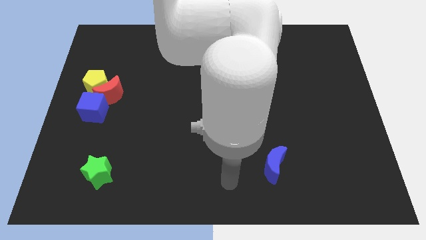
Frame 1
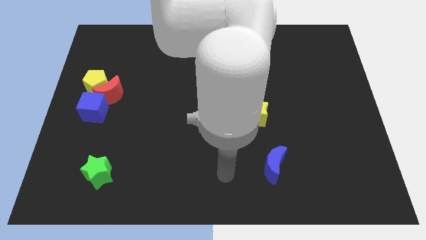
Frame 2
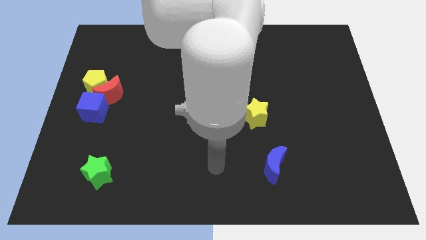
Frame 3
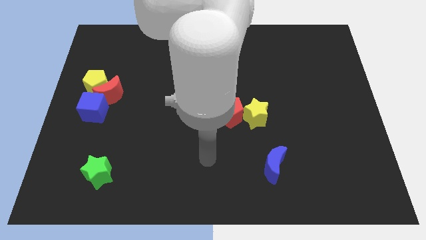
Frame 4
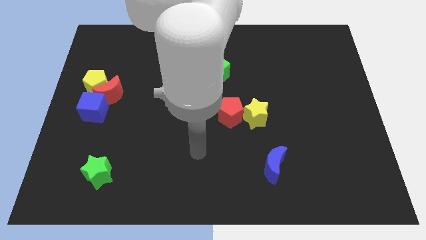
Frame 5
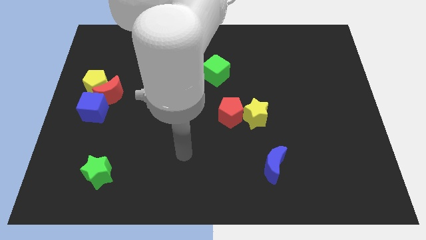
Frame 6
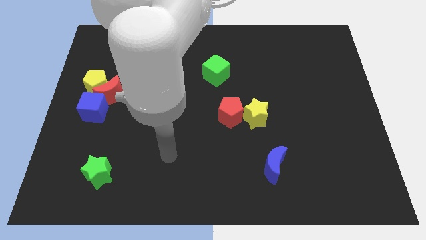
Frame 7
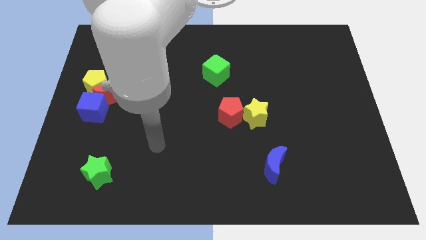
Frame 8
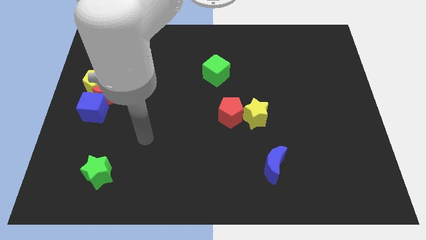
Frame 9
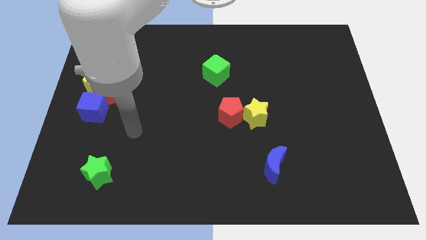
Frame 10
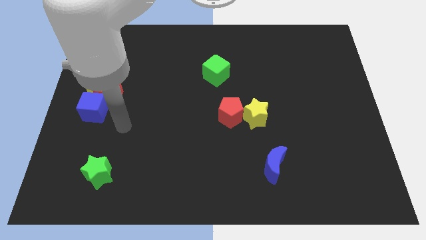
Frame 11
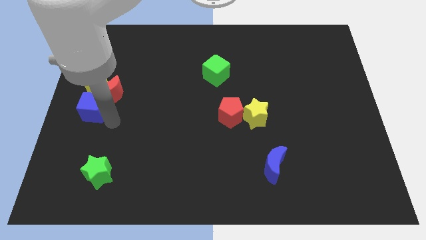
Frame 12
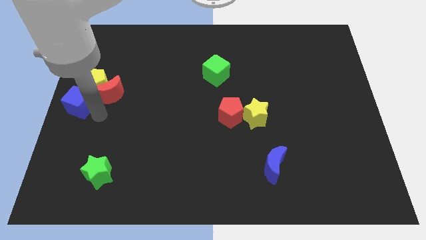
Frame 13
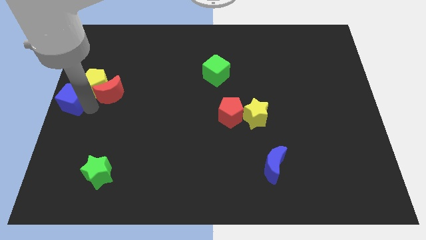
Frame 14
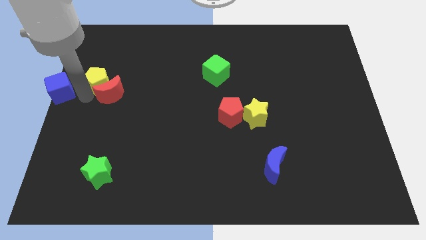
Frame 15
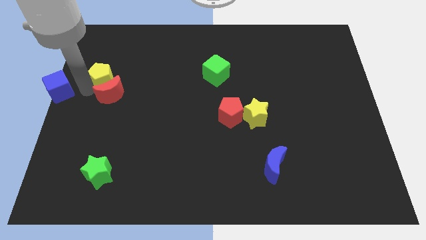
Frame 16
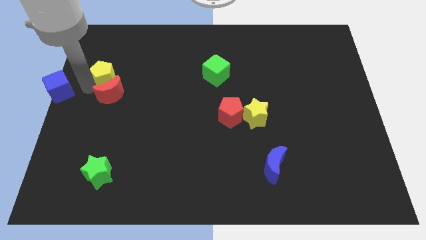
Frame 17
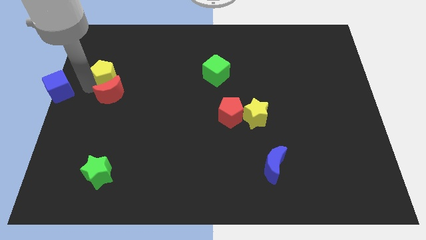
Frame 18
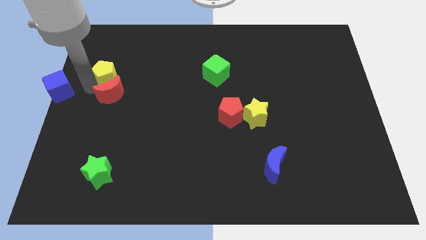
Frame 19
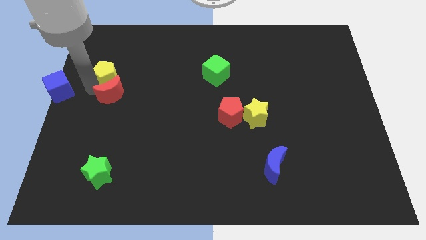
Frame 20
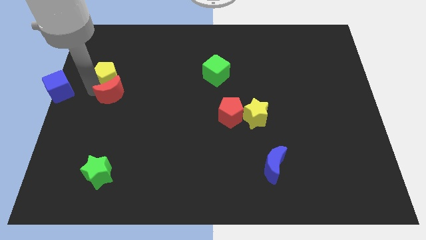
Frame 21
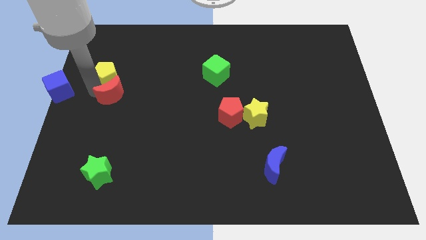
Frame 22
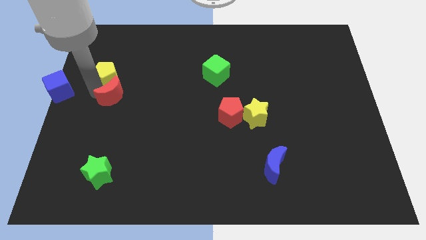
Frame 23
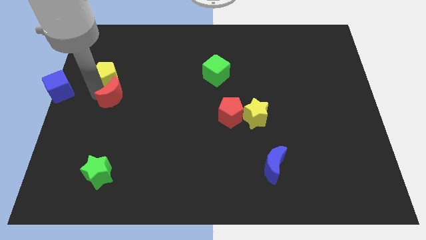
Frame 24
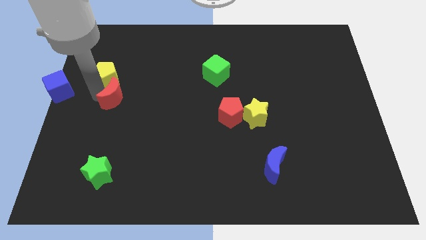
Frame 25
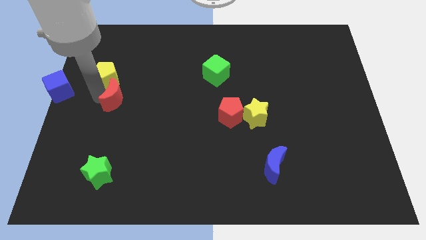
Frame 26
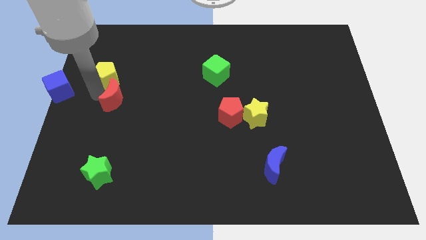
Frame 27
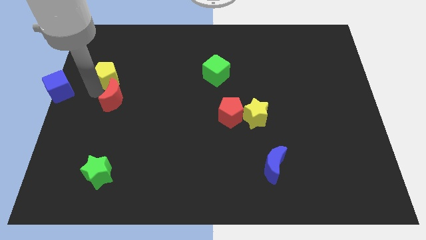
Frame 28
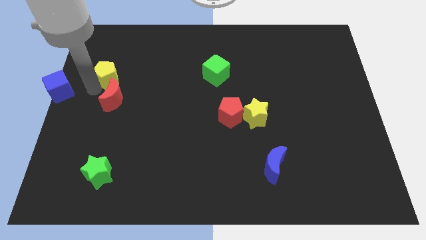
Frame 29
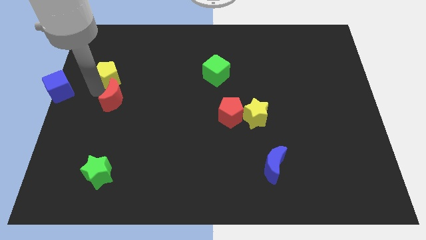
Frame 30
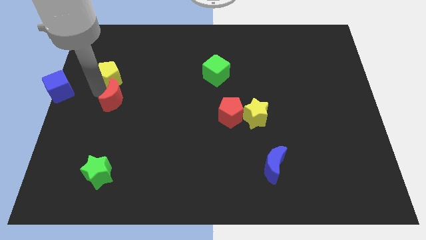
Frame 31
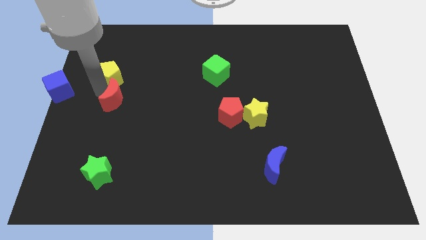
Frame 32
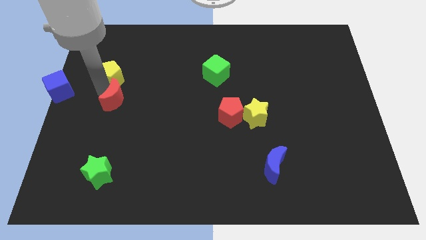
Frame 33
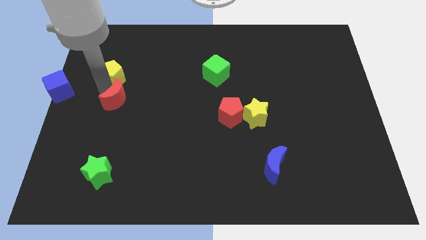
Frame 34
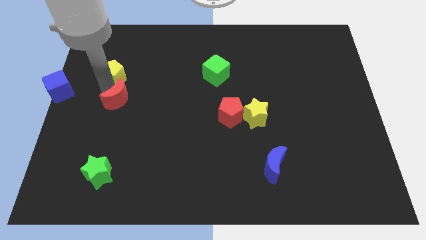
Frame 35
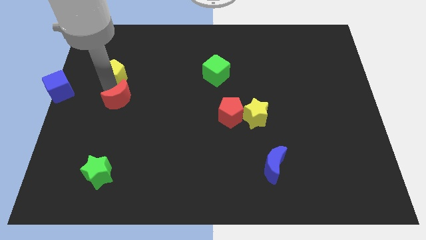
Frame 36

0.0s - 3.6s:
move the red moon away from the yellow pentagon and blue cube

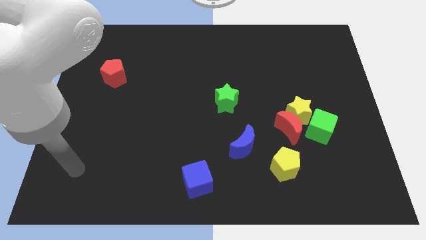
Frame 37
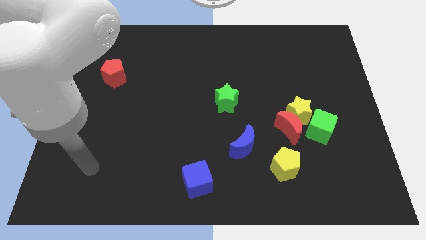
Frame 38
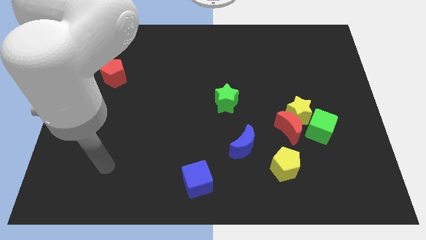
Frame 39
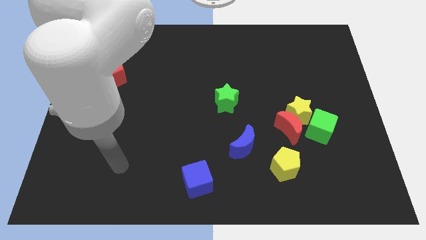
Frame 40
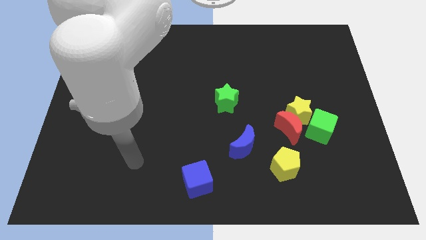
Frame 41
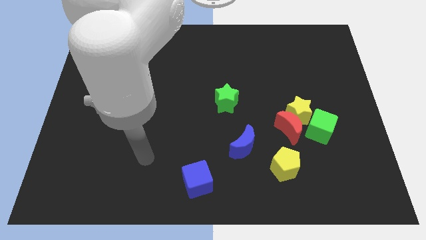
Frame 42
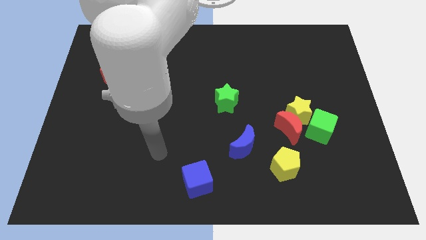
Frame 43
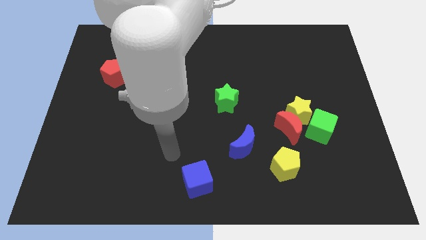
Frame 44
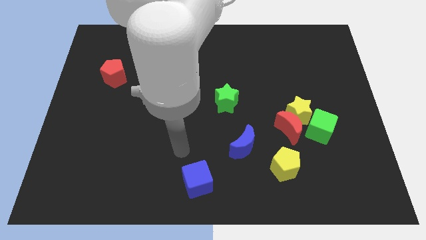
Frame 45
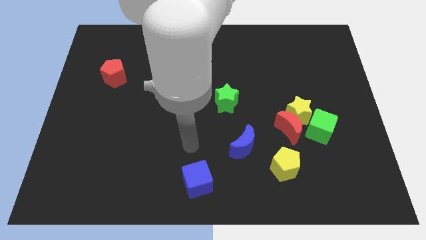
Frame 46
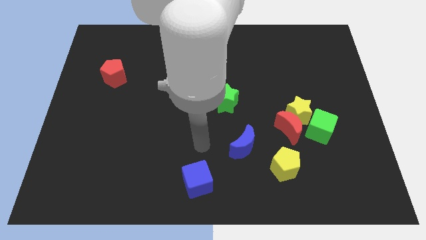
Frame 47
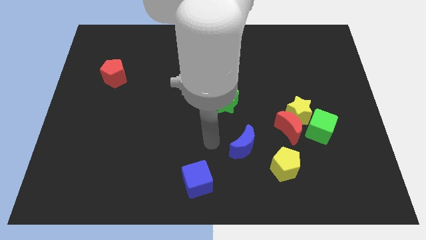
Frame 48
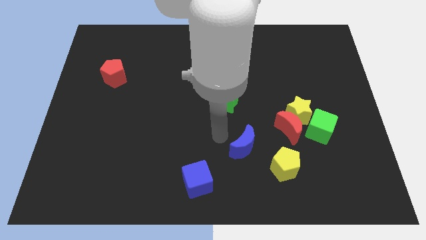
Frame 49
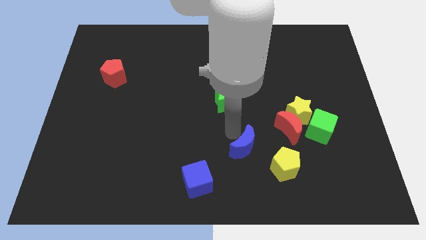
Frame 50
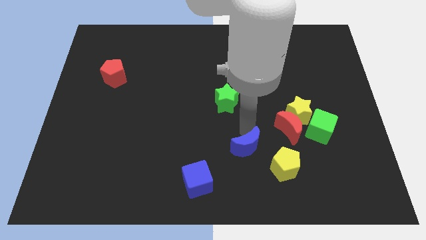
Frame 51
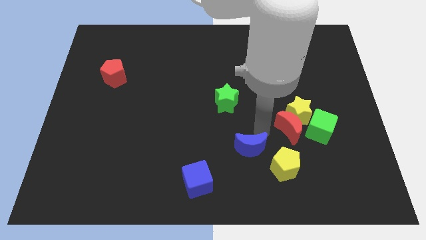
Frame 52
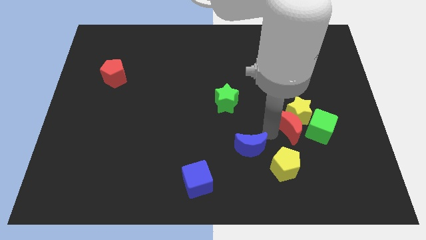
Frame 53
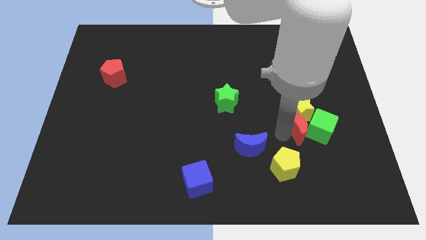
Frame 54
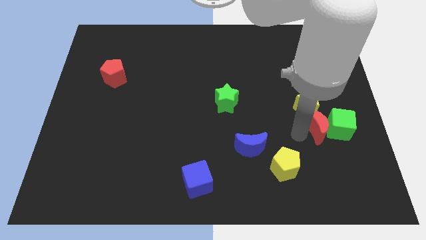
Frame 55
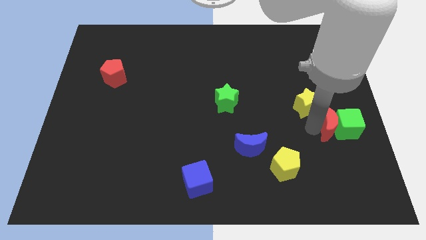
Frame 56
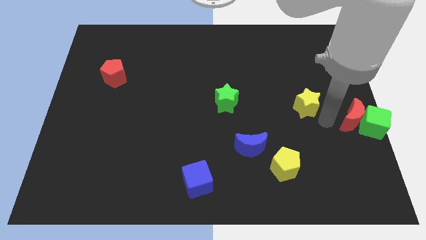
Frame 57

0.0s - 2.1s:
pull the yellow star apart from the red moon and green cube

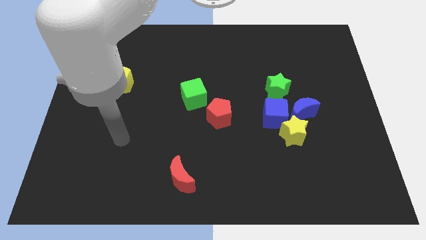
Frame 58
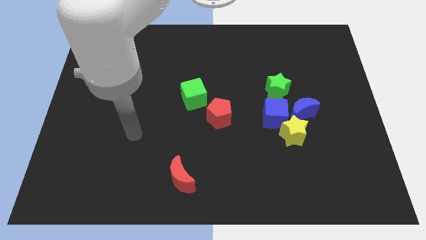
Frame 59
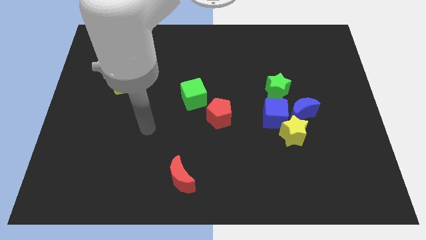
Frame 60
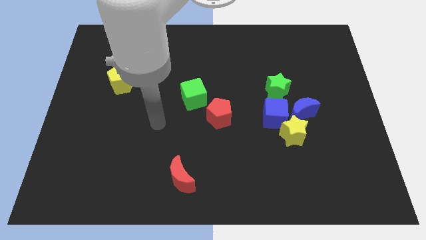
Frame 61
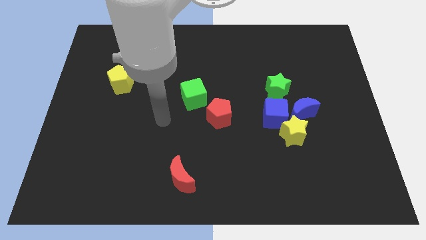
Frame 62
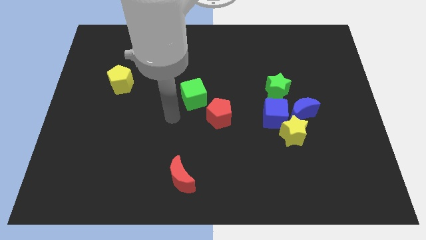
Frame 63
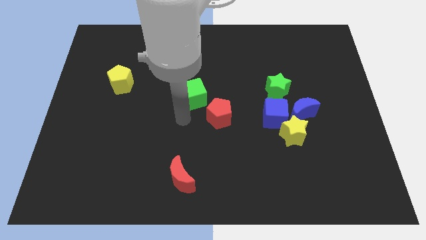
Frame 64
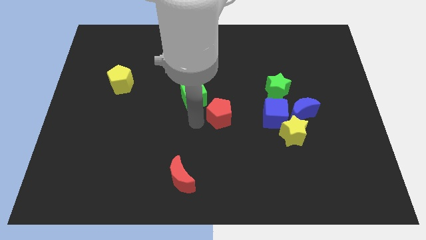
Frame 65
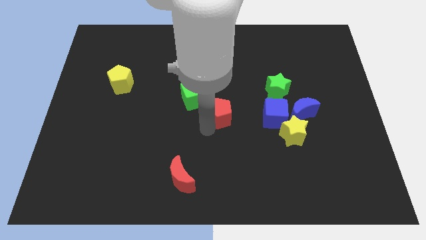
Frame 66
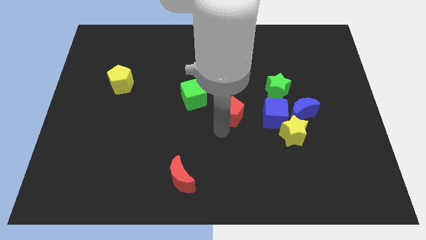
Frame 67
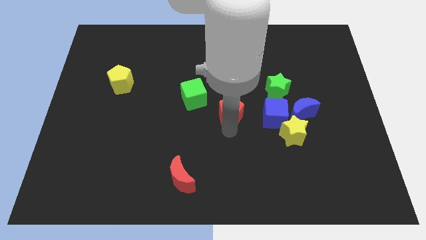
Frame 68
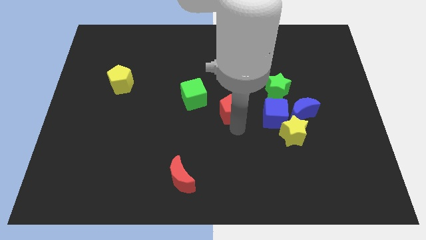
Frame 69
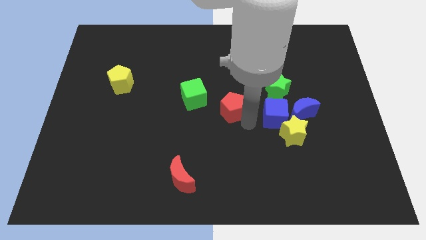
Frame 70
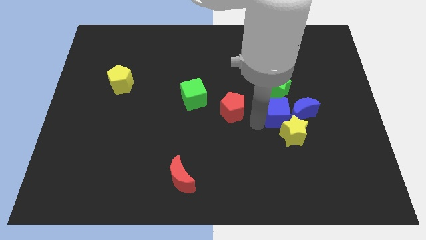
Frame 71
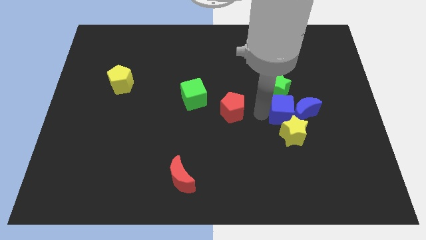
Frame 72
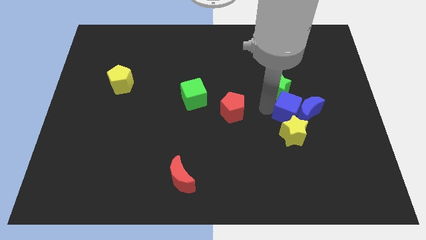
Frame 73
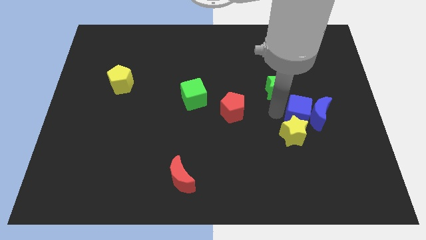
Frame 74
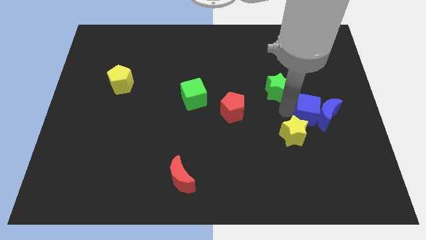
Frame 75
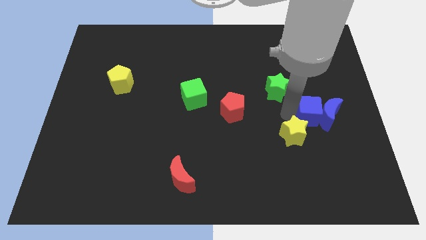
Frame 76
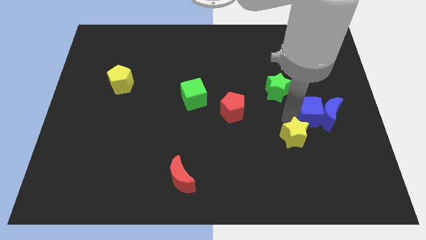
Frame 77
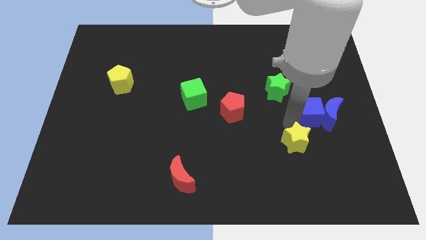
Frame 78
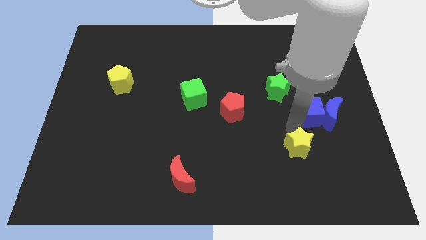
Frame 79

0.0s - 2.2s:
move the yellow star away from the blue cube and blue moon

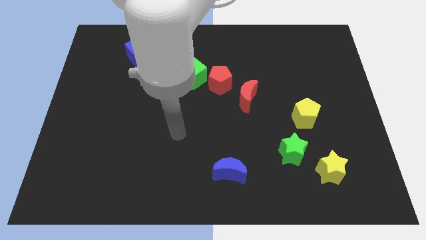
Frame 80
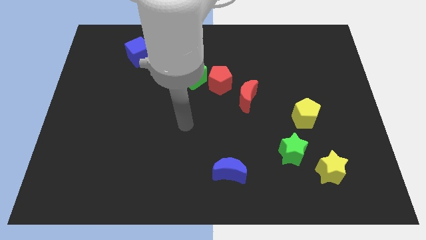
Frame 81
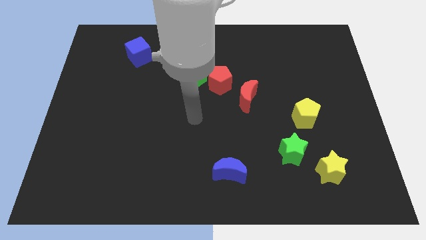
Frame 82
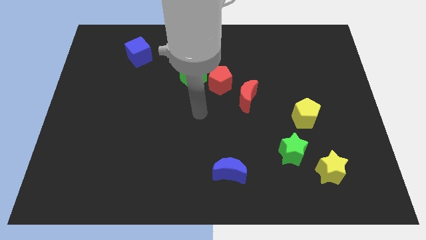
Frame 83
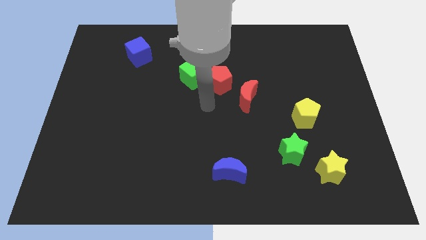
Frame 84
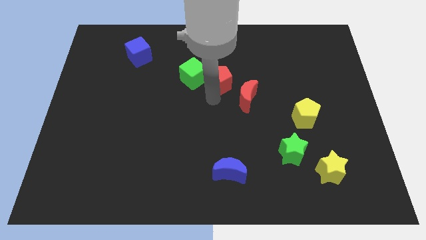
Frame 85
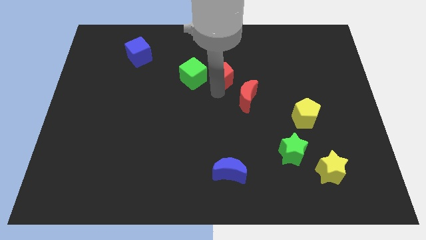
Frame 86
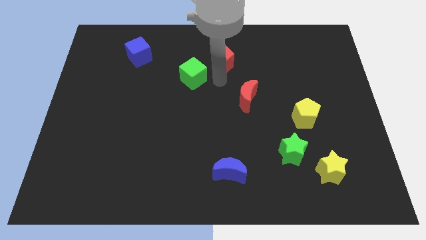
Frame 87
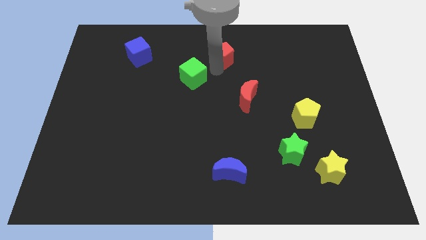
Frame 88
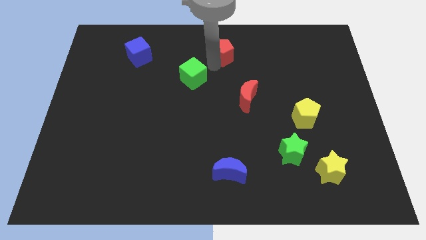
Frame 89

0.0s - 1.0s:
move the green cube away from the red pentagon

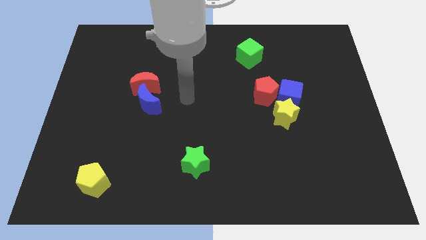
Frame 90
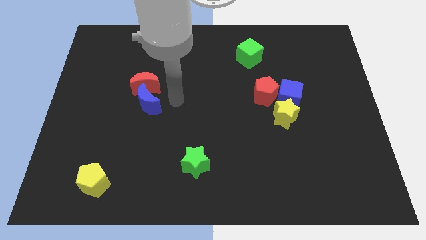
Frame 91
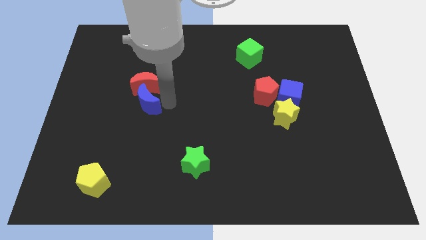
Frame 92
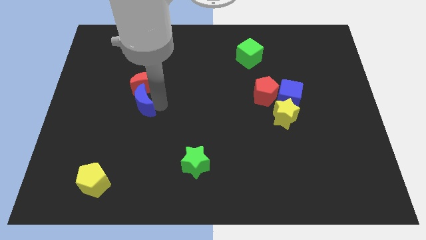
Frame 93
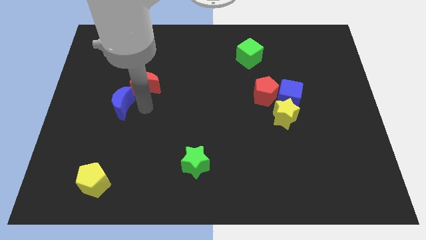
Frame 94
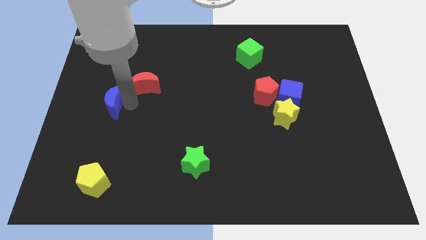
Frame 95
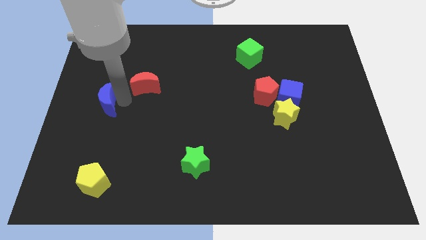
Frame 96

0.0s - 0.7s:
move the red moon away from the blue moon
